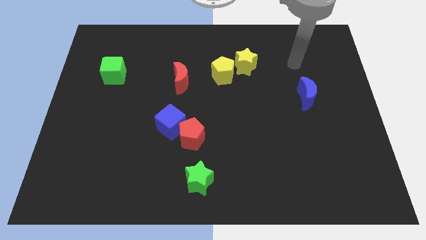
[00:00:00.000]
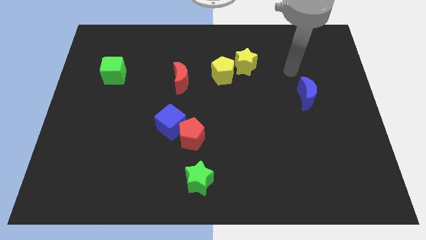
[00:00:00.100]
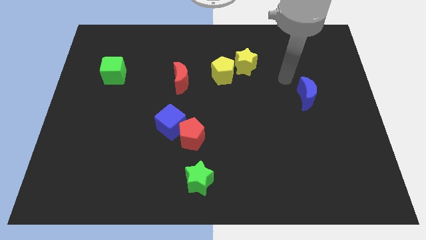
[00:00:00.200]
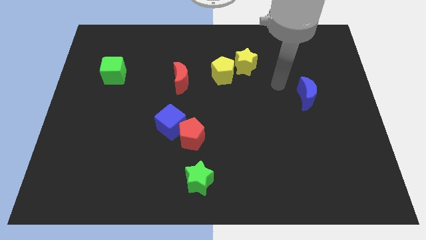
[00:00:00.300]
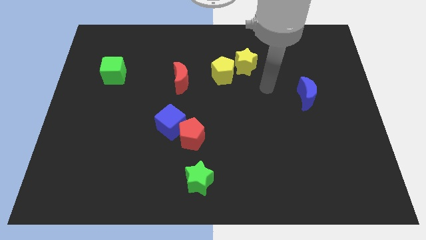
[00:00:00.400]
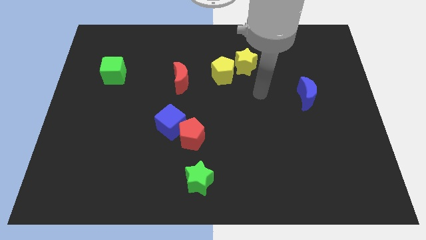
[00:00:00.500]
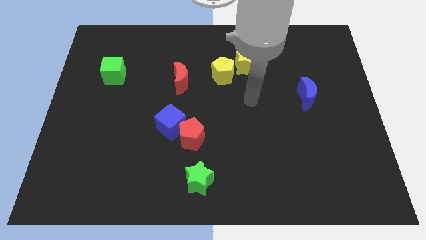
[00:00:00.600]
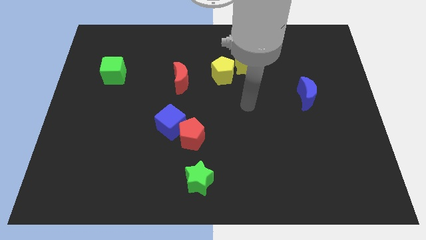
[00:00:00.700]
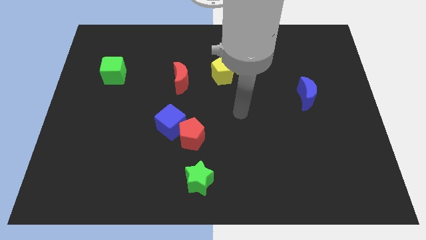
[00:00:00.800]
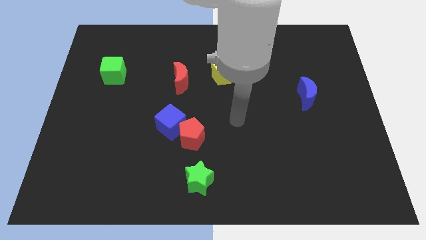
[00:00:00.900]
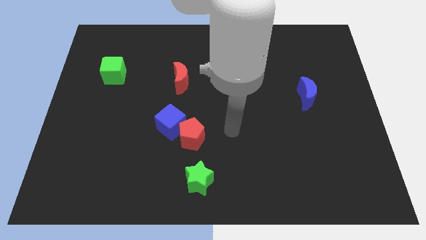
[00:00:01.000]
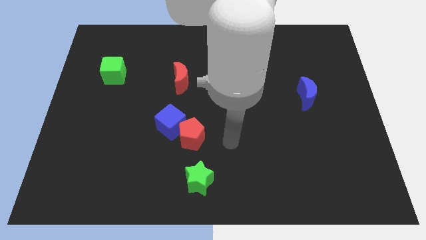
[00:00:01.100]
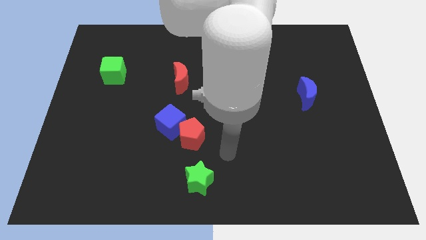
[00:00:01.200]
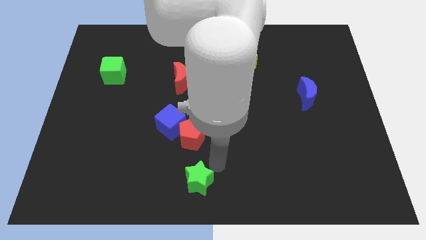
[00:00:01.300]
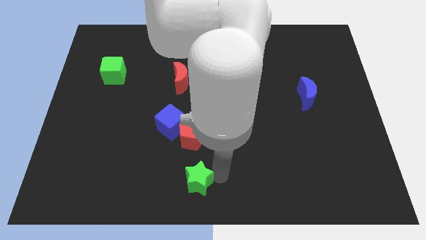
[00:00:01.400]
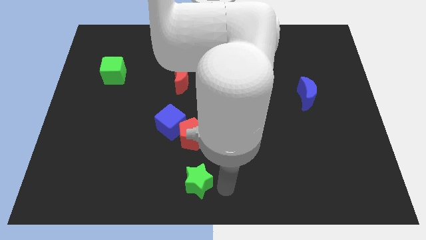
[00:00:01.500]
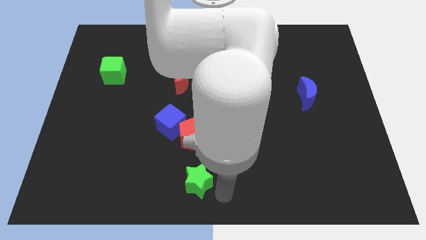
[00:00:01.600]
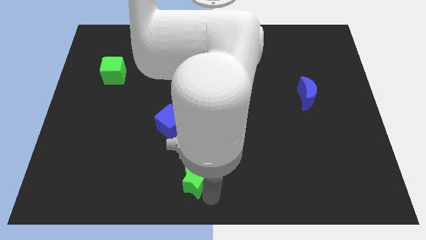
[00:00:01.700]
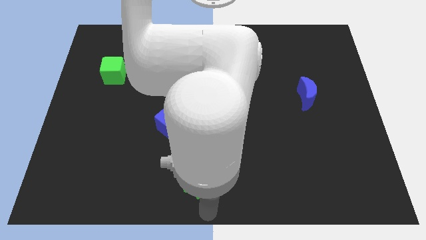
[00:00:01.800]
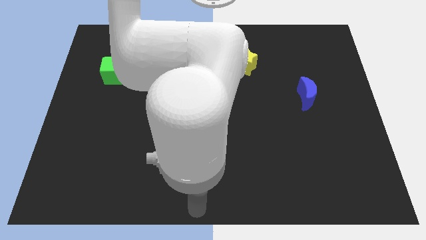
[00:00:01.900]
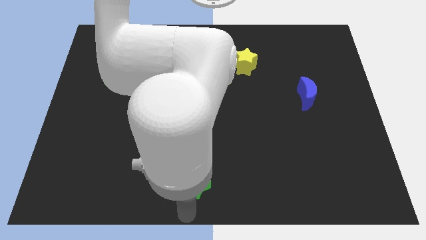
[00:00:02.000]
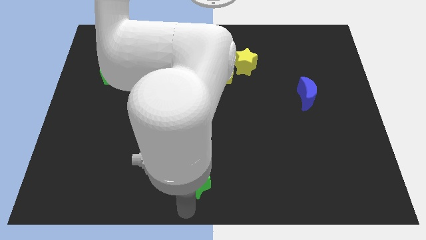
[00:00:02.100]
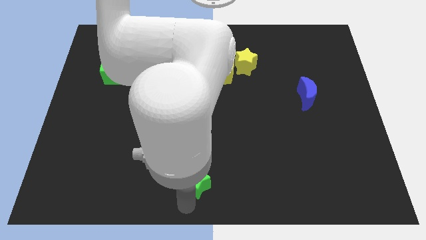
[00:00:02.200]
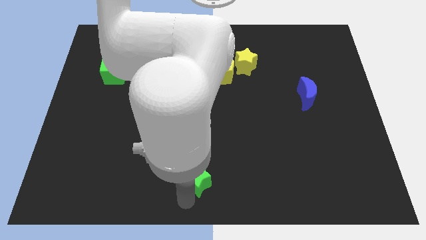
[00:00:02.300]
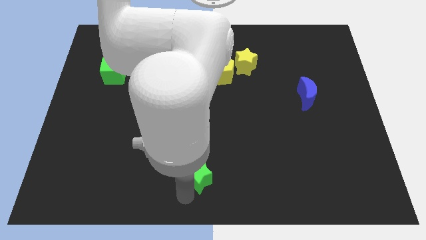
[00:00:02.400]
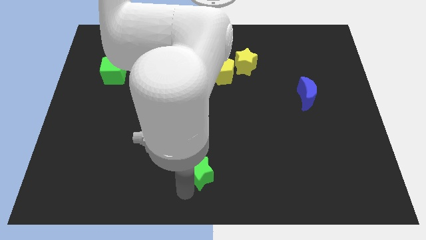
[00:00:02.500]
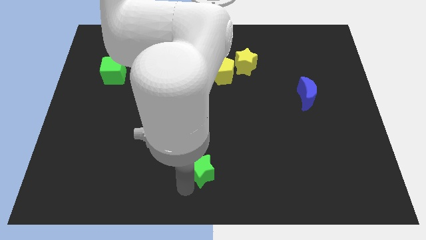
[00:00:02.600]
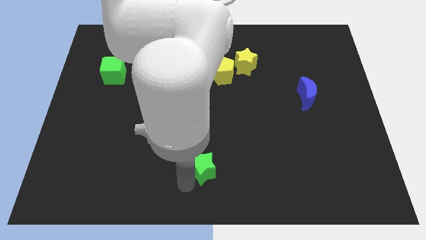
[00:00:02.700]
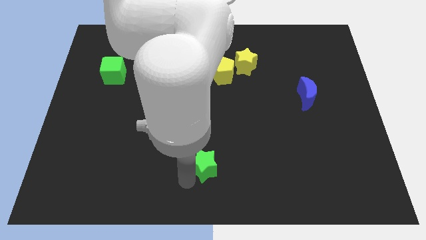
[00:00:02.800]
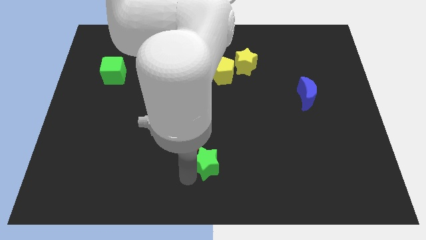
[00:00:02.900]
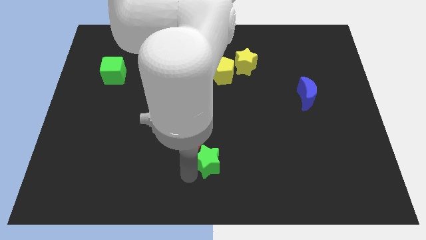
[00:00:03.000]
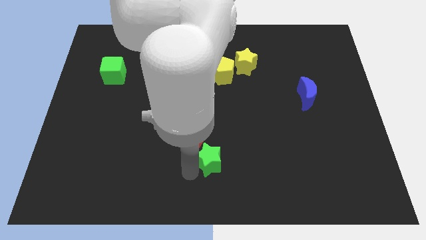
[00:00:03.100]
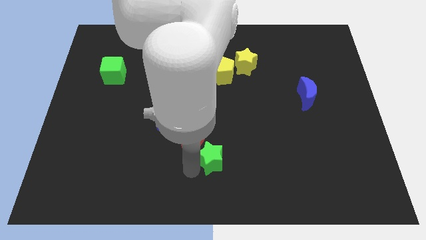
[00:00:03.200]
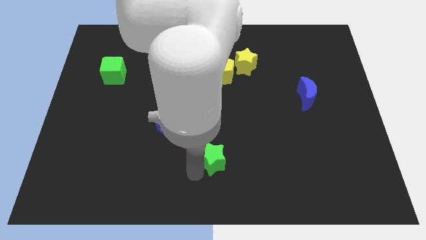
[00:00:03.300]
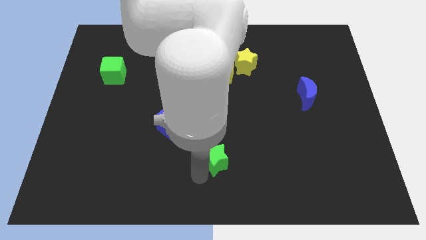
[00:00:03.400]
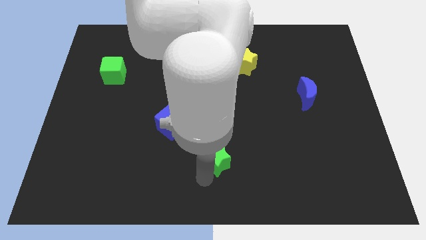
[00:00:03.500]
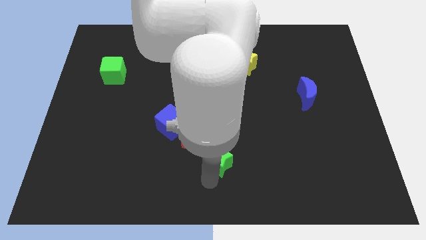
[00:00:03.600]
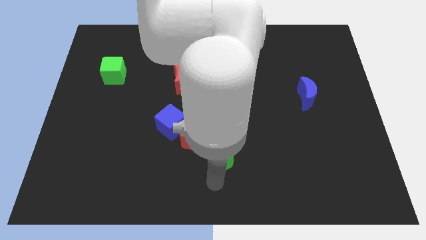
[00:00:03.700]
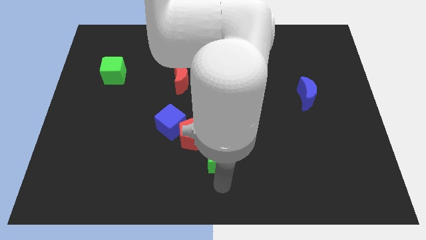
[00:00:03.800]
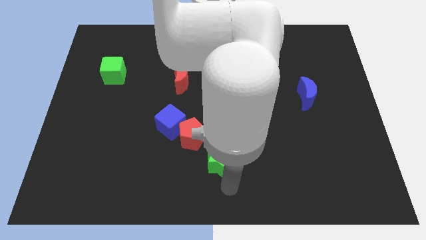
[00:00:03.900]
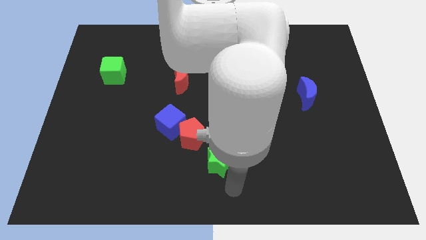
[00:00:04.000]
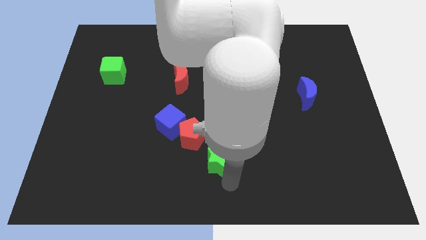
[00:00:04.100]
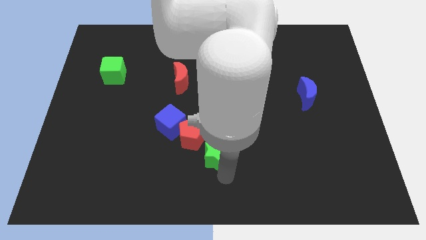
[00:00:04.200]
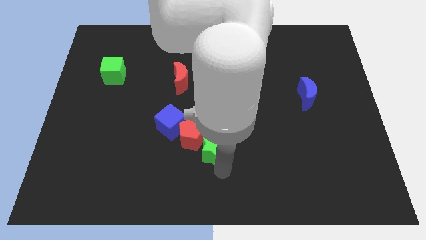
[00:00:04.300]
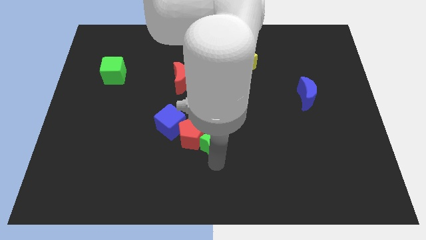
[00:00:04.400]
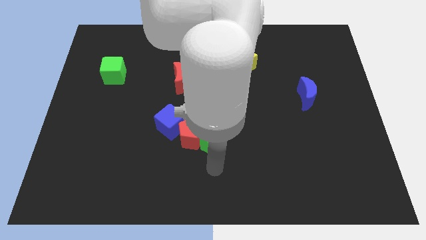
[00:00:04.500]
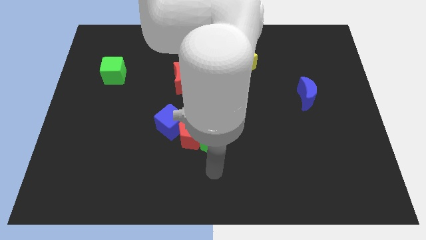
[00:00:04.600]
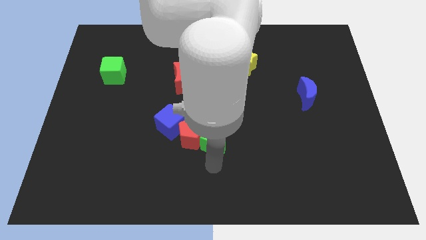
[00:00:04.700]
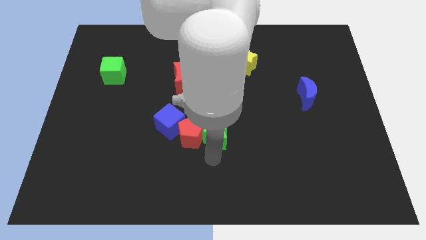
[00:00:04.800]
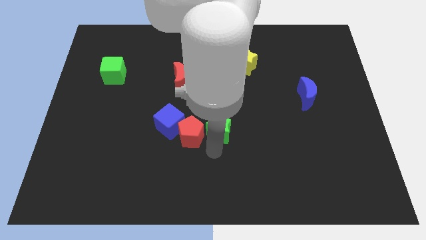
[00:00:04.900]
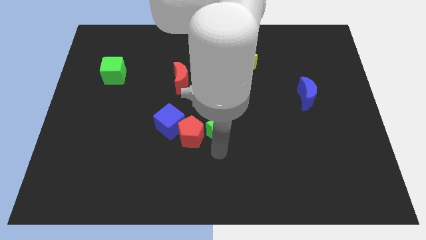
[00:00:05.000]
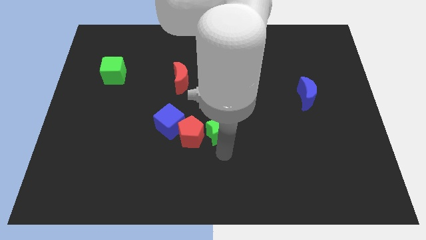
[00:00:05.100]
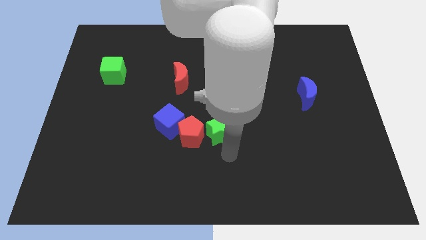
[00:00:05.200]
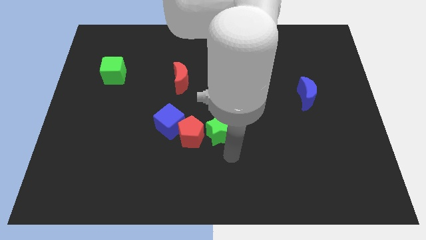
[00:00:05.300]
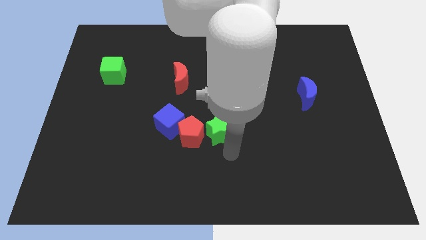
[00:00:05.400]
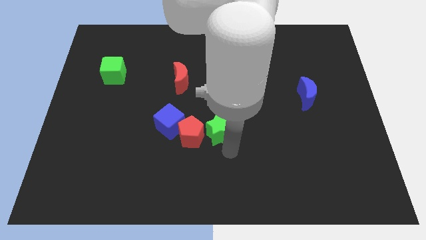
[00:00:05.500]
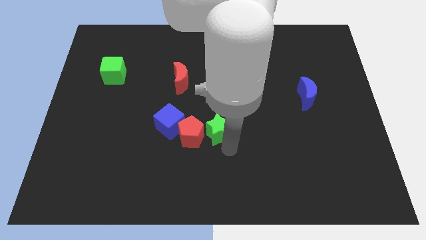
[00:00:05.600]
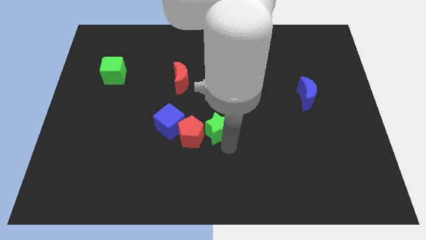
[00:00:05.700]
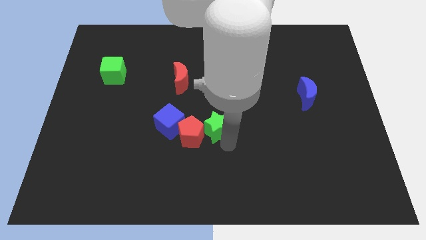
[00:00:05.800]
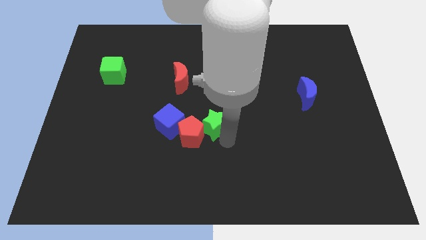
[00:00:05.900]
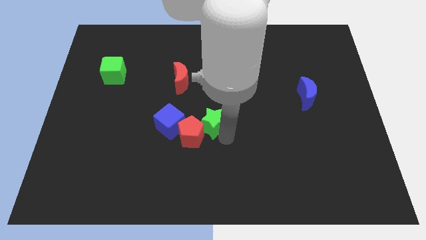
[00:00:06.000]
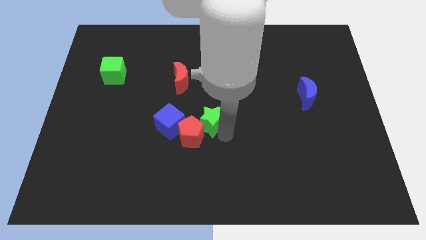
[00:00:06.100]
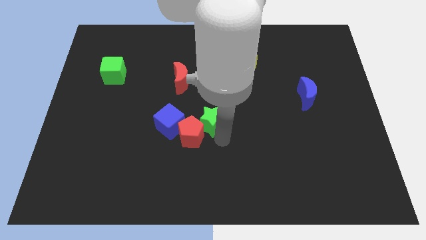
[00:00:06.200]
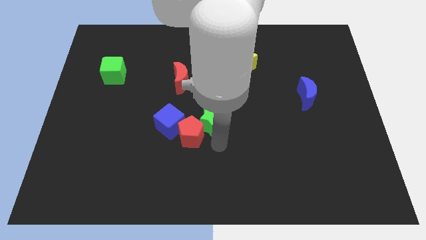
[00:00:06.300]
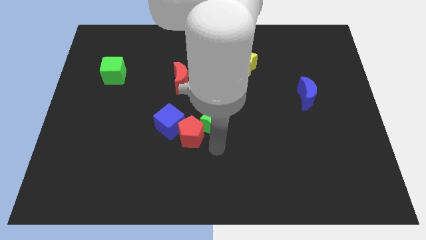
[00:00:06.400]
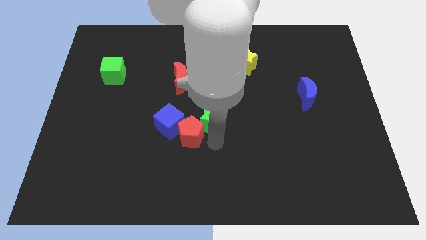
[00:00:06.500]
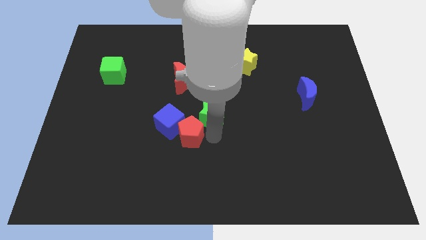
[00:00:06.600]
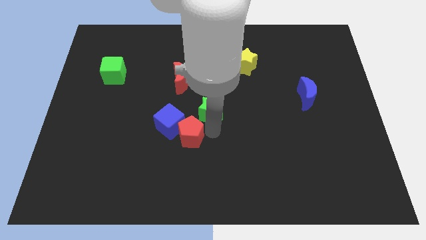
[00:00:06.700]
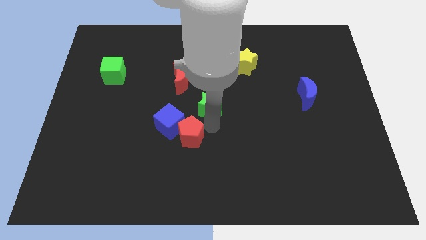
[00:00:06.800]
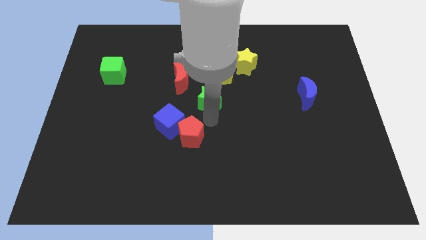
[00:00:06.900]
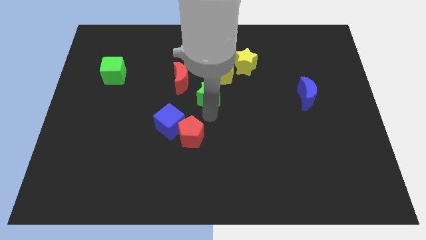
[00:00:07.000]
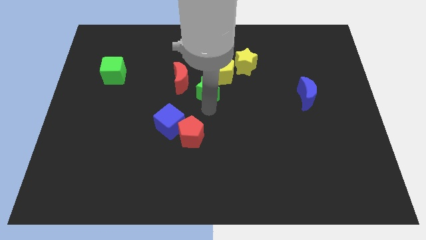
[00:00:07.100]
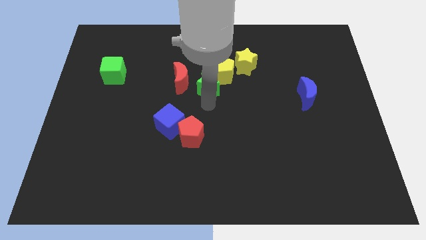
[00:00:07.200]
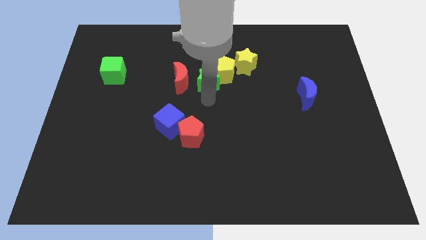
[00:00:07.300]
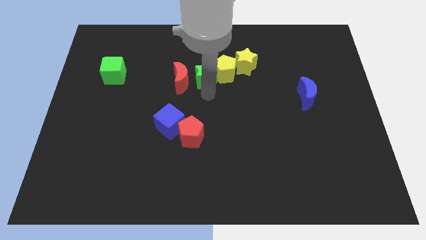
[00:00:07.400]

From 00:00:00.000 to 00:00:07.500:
move the green star to the top right side of the red moon
